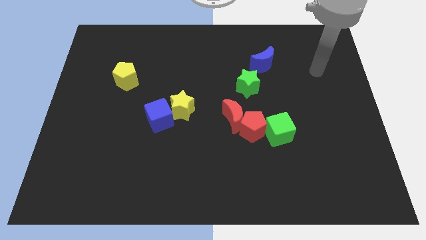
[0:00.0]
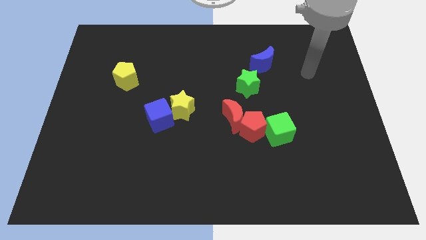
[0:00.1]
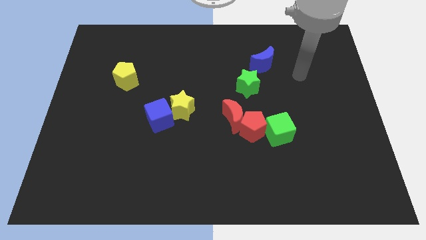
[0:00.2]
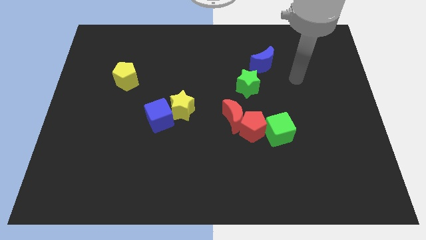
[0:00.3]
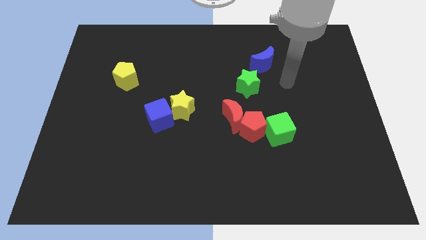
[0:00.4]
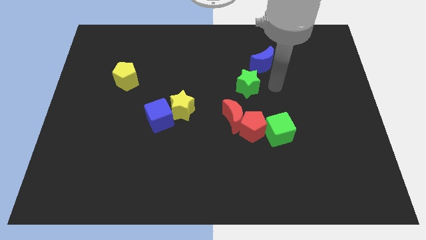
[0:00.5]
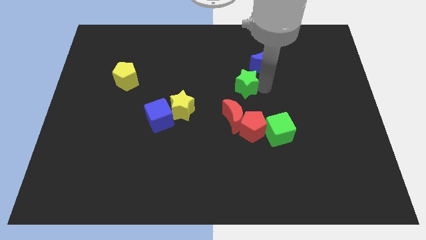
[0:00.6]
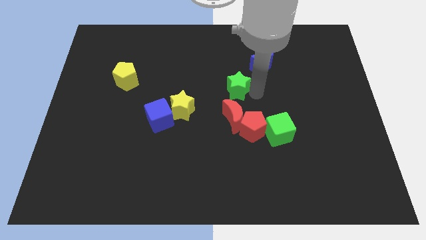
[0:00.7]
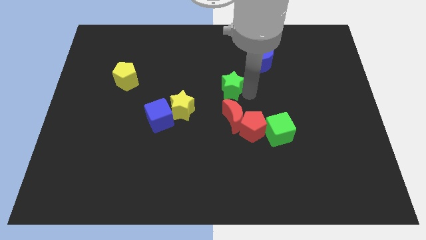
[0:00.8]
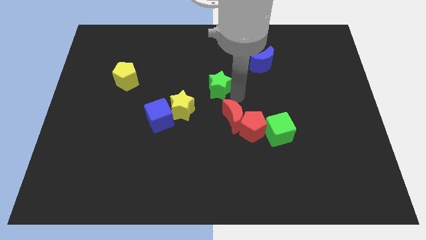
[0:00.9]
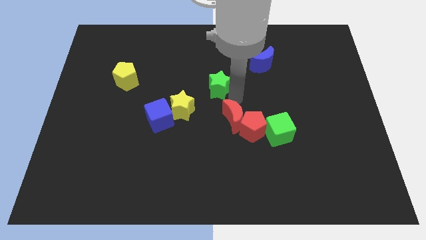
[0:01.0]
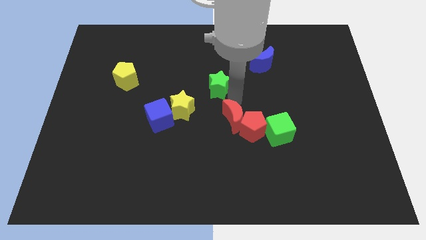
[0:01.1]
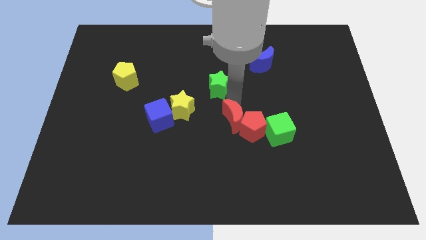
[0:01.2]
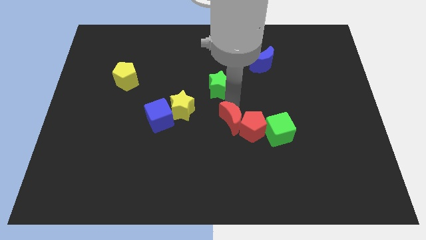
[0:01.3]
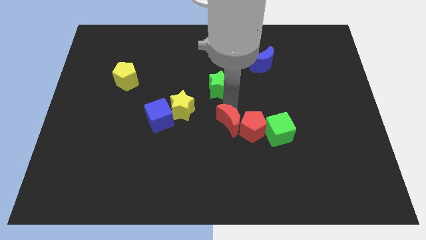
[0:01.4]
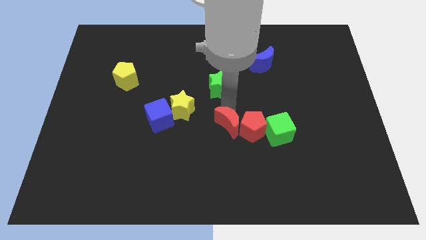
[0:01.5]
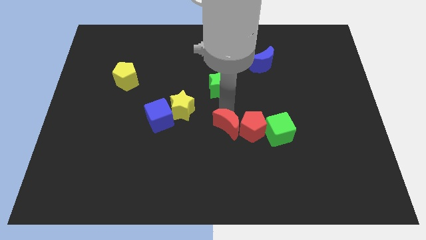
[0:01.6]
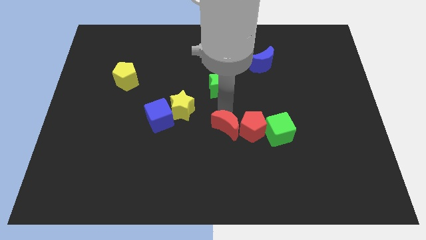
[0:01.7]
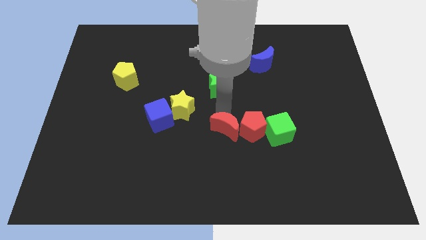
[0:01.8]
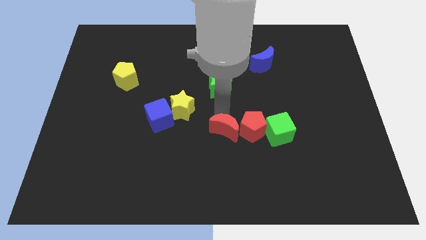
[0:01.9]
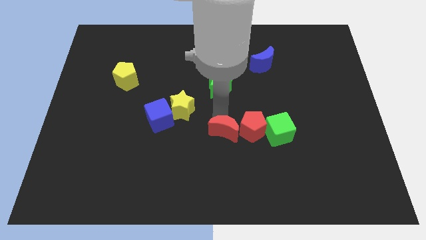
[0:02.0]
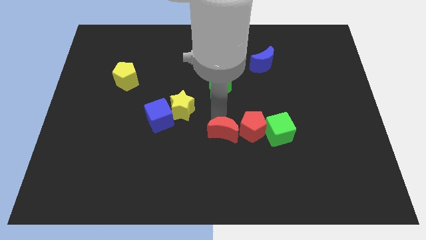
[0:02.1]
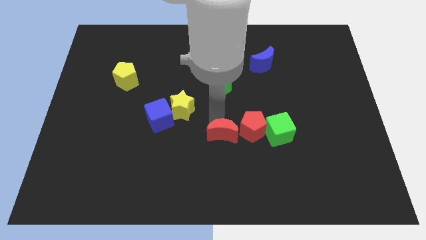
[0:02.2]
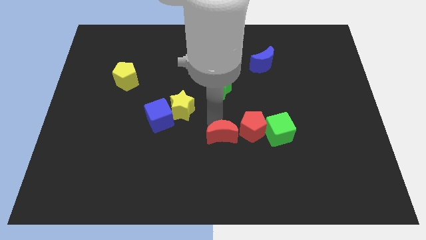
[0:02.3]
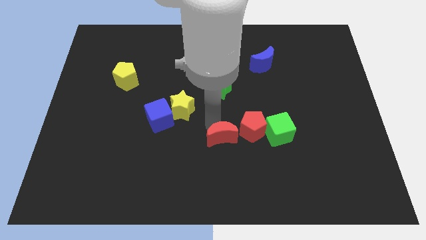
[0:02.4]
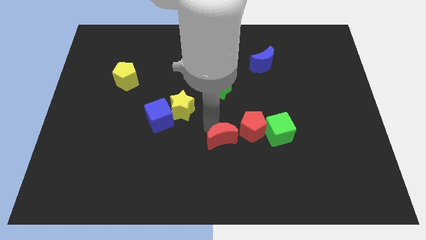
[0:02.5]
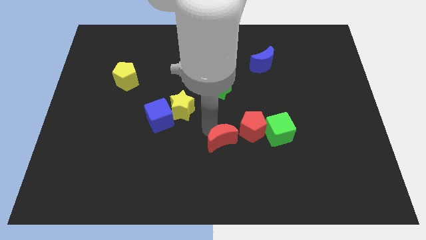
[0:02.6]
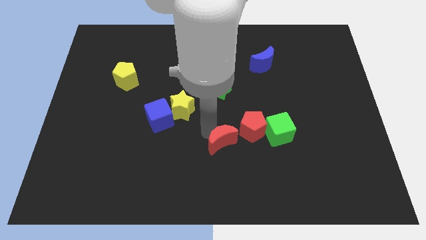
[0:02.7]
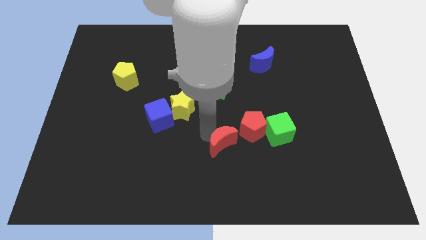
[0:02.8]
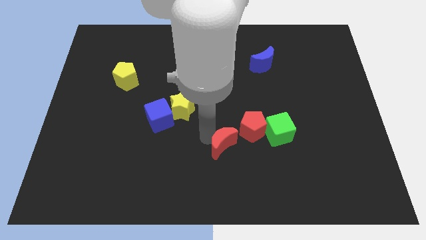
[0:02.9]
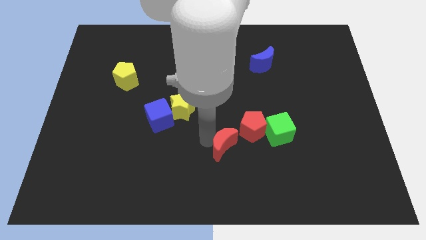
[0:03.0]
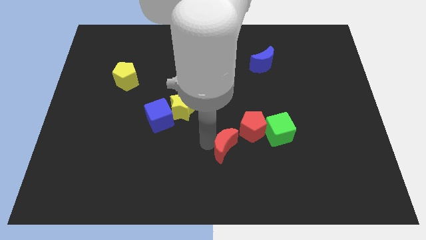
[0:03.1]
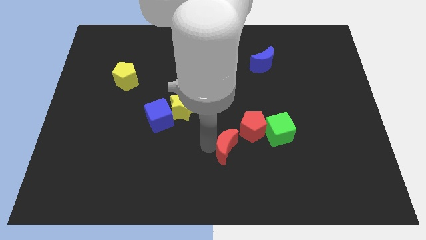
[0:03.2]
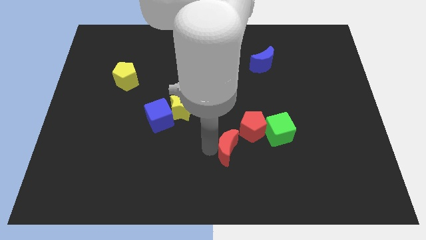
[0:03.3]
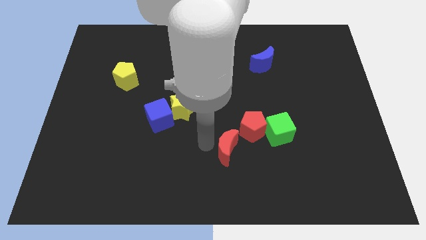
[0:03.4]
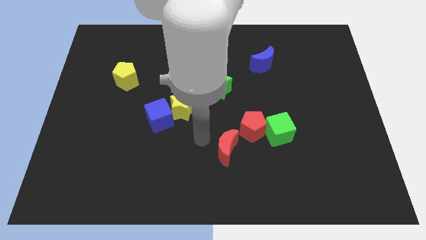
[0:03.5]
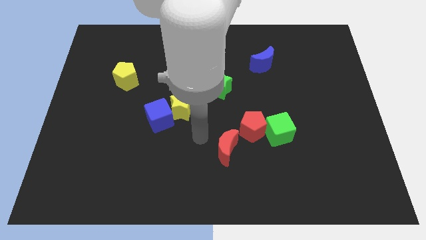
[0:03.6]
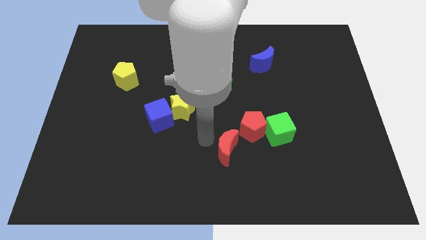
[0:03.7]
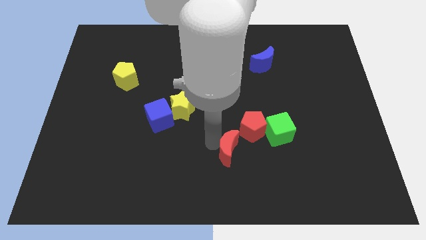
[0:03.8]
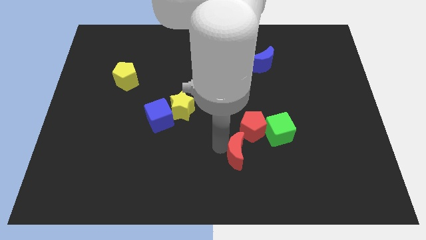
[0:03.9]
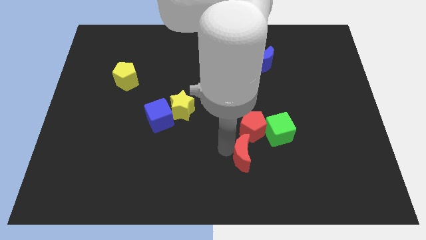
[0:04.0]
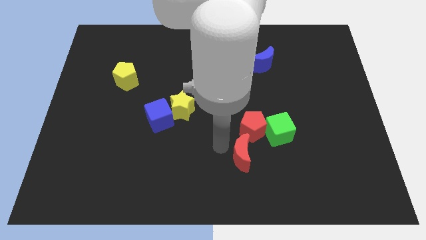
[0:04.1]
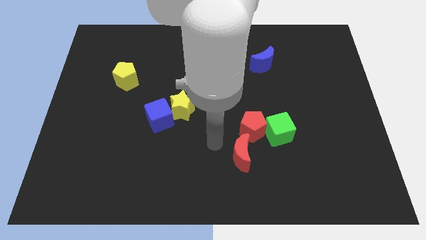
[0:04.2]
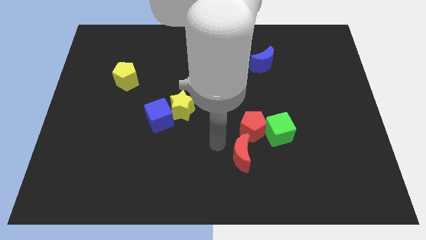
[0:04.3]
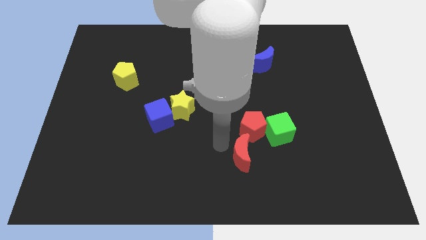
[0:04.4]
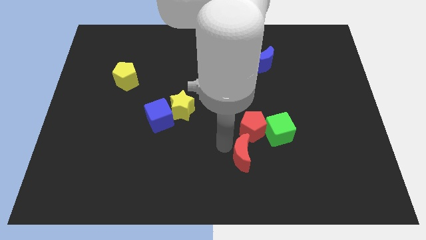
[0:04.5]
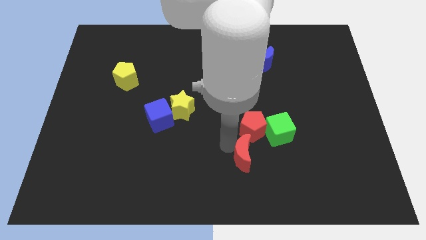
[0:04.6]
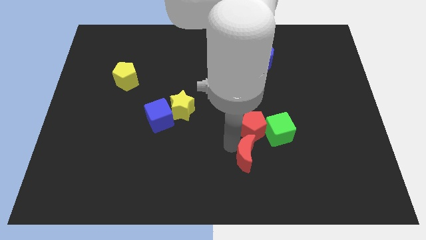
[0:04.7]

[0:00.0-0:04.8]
slide the red moon a bit diagonally down and right

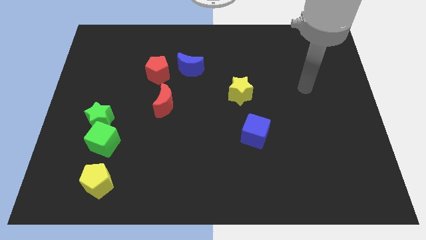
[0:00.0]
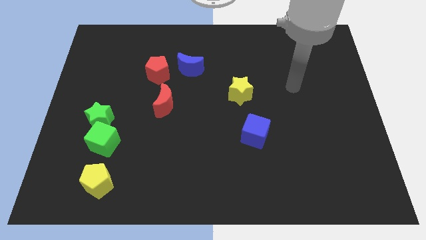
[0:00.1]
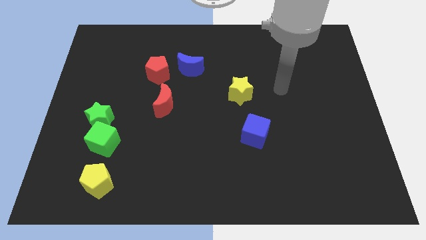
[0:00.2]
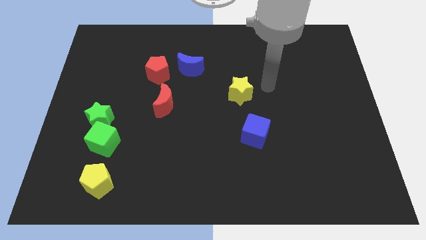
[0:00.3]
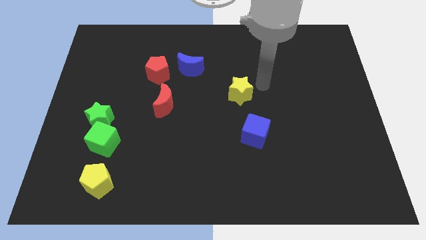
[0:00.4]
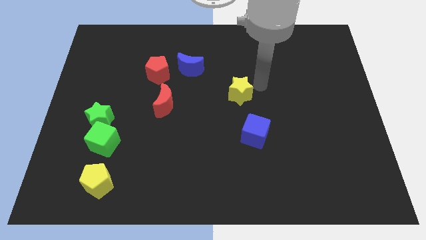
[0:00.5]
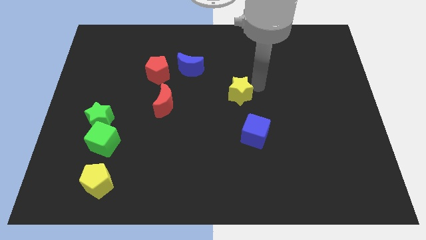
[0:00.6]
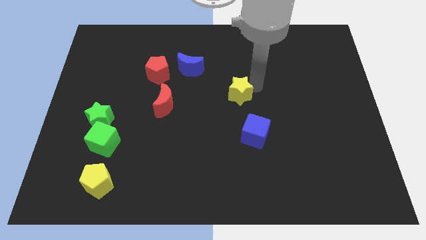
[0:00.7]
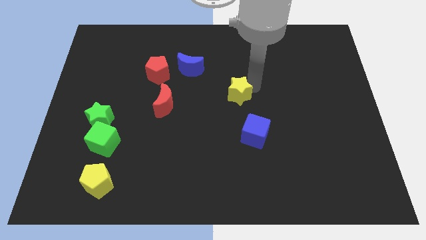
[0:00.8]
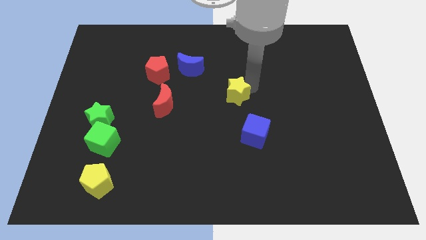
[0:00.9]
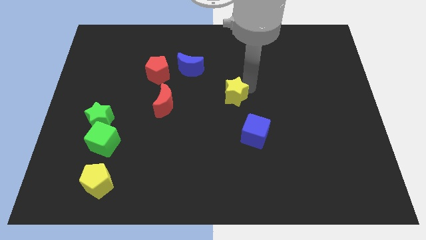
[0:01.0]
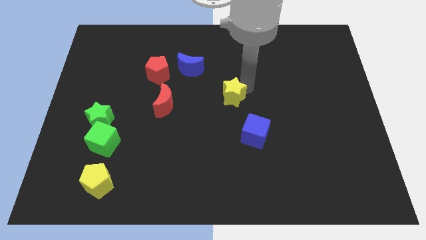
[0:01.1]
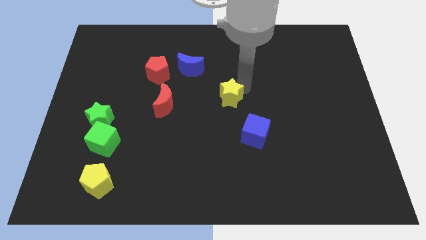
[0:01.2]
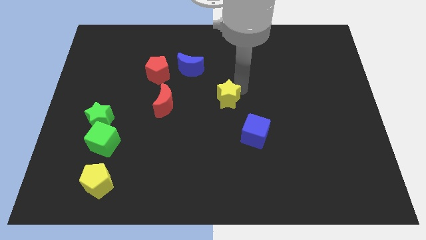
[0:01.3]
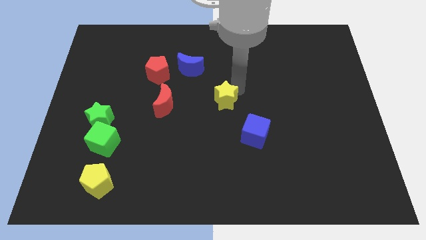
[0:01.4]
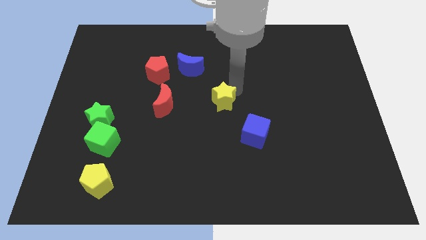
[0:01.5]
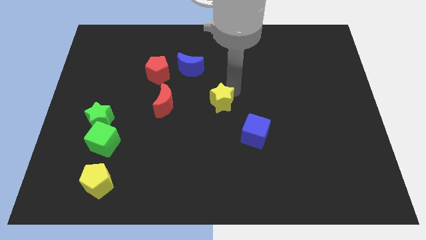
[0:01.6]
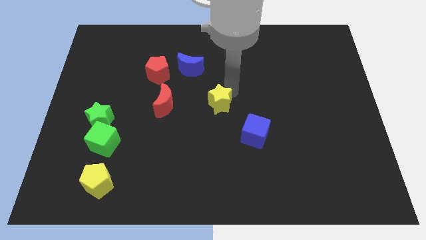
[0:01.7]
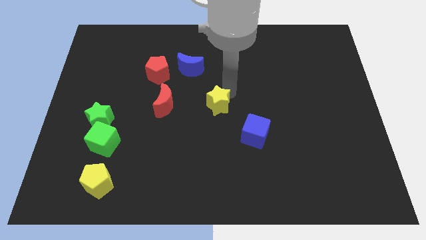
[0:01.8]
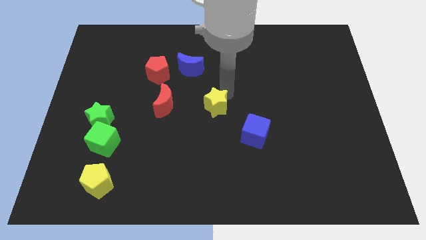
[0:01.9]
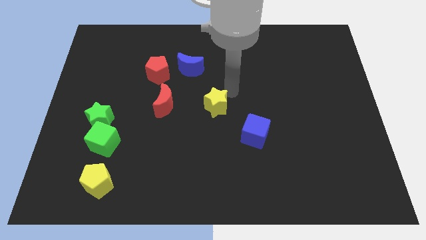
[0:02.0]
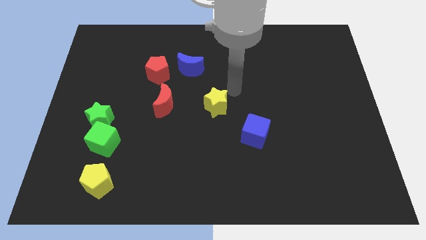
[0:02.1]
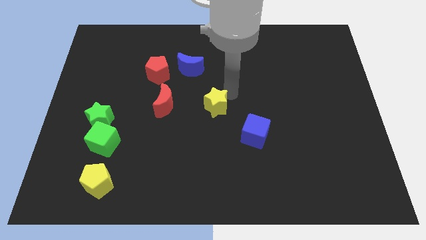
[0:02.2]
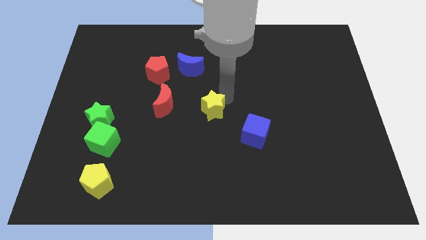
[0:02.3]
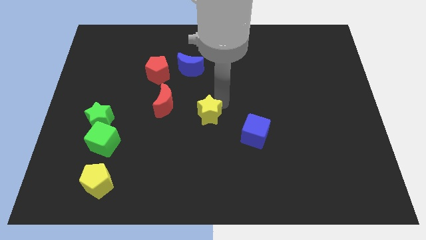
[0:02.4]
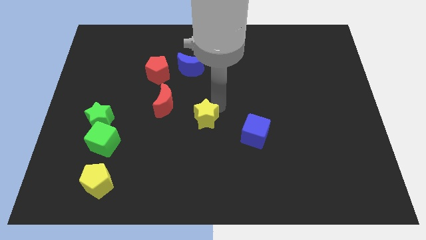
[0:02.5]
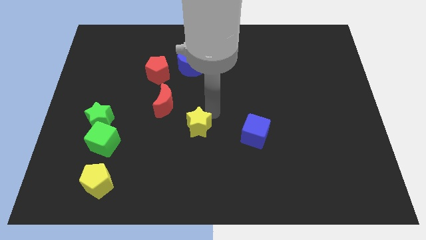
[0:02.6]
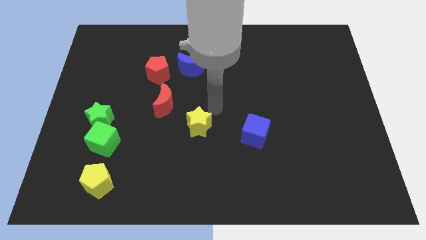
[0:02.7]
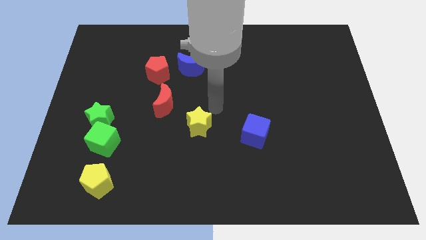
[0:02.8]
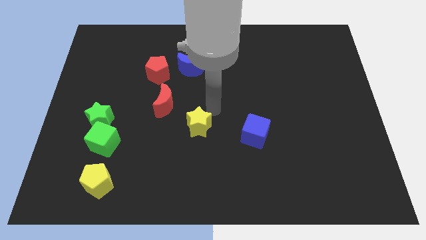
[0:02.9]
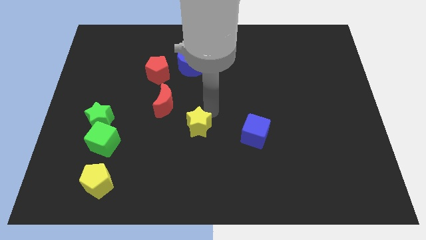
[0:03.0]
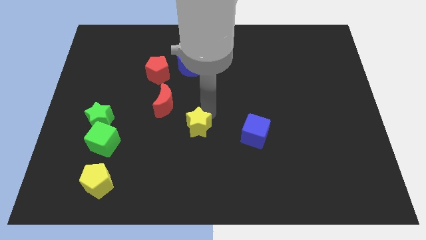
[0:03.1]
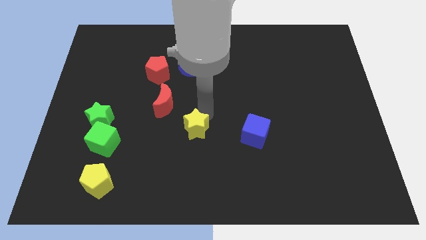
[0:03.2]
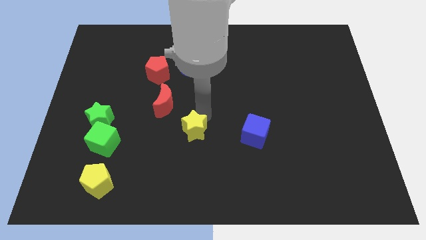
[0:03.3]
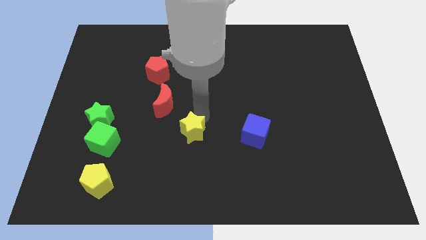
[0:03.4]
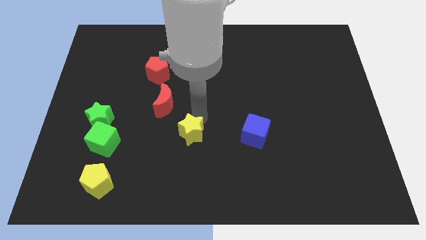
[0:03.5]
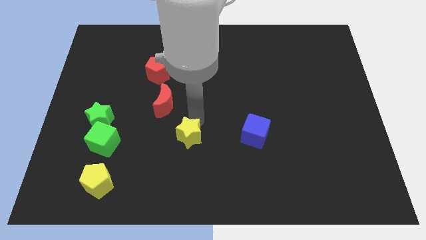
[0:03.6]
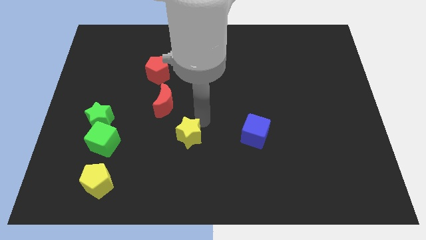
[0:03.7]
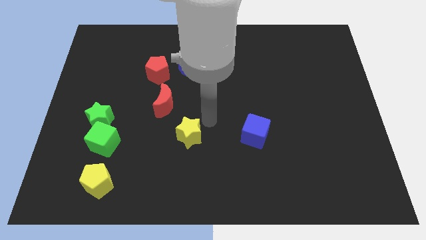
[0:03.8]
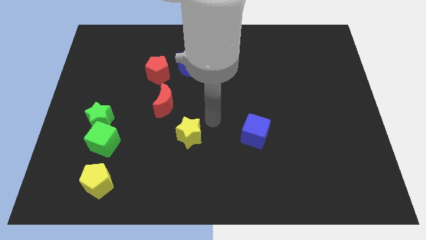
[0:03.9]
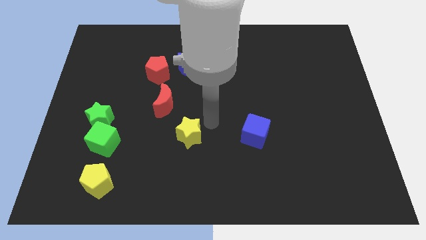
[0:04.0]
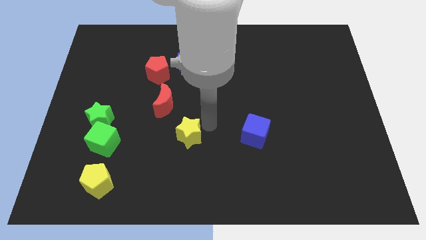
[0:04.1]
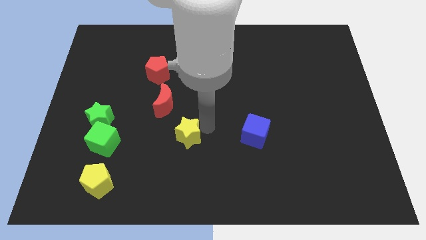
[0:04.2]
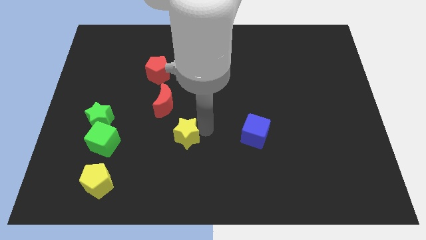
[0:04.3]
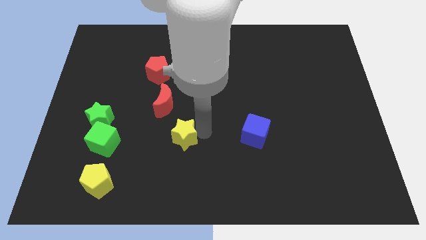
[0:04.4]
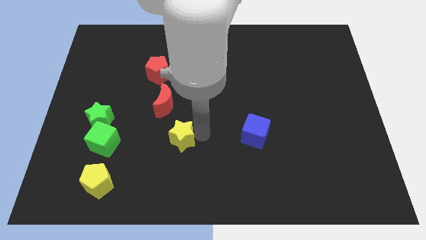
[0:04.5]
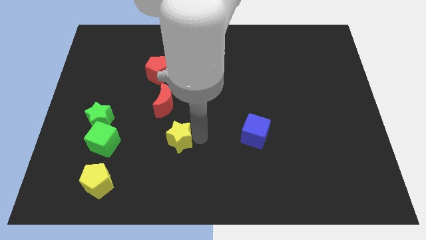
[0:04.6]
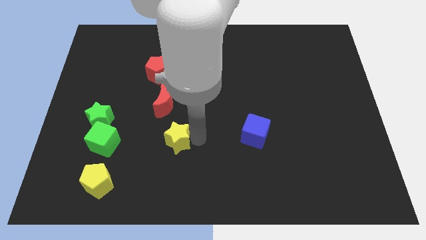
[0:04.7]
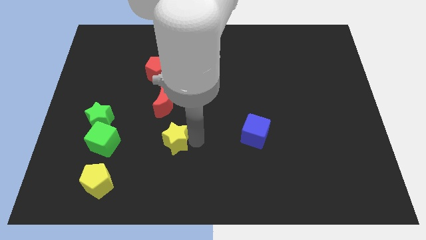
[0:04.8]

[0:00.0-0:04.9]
push the yellow star down and then to the left
